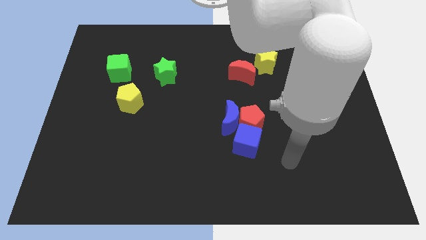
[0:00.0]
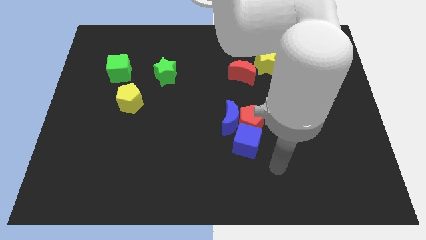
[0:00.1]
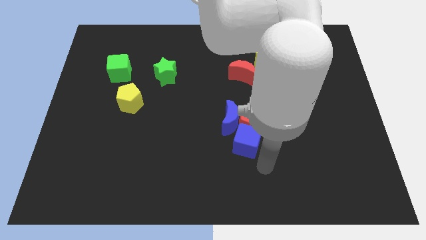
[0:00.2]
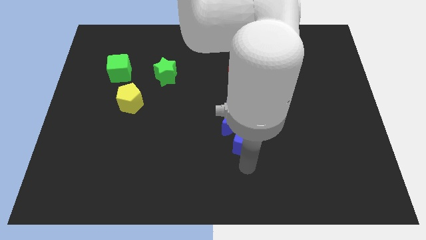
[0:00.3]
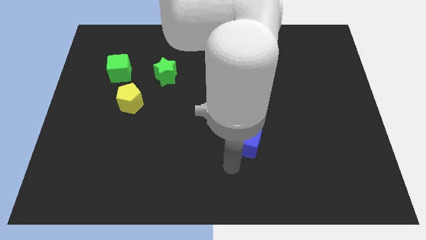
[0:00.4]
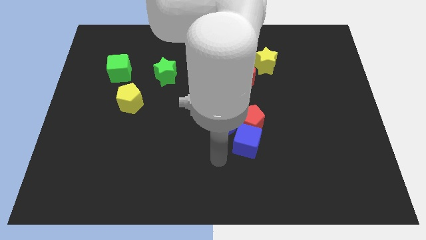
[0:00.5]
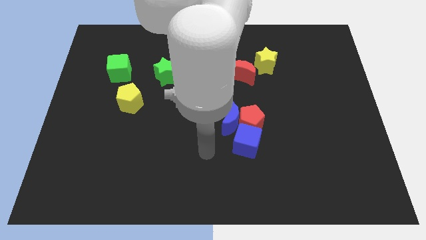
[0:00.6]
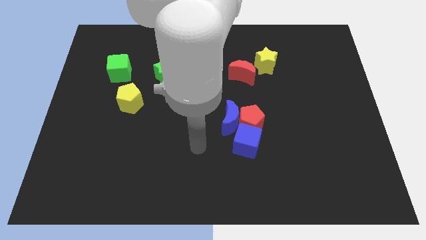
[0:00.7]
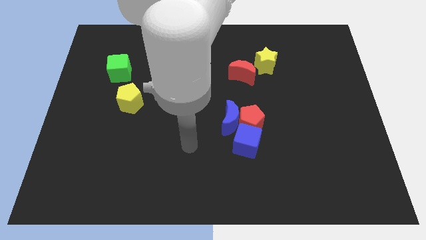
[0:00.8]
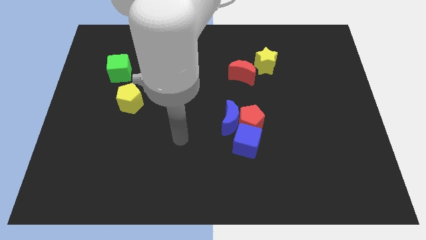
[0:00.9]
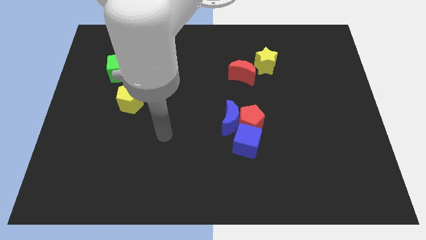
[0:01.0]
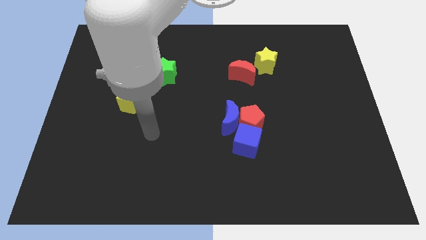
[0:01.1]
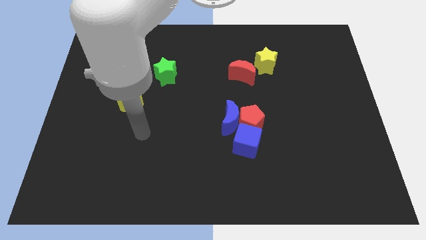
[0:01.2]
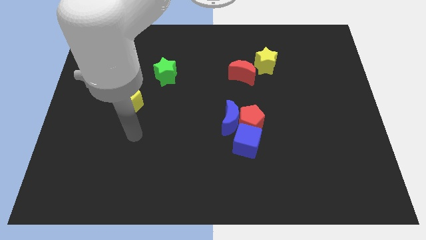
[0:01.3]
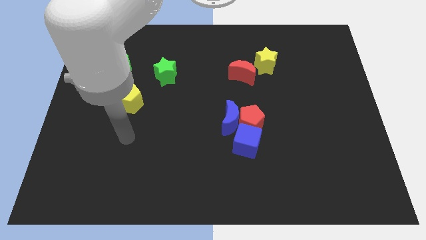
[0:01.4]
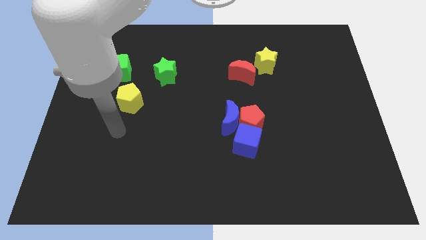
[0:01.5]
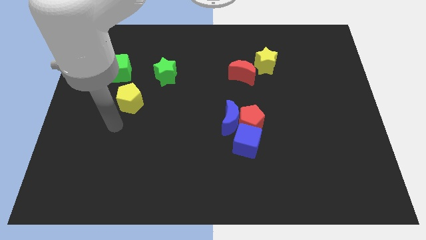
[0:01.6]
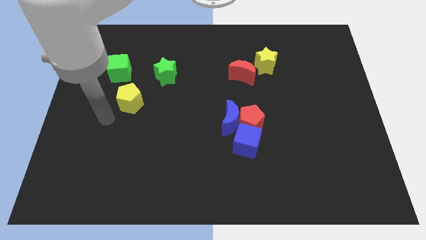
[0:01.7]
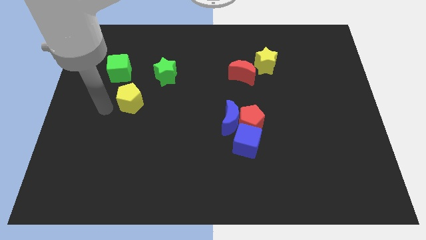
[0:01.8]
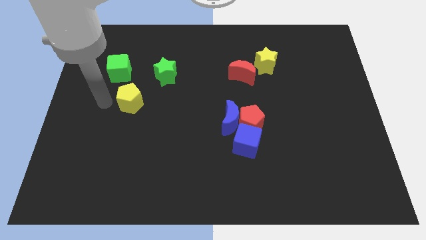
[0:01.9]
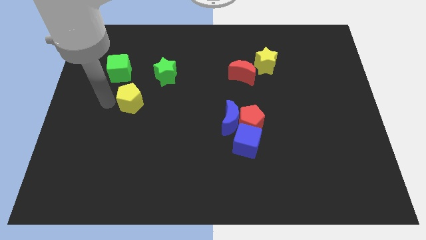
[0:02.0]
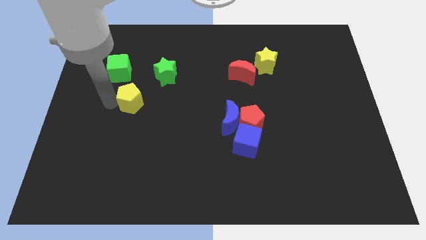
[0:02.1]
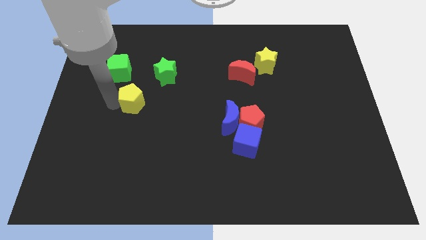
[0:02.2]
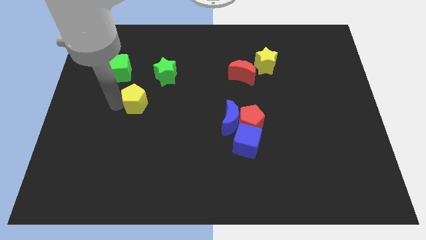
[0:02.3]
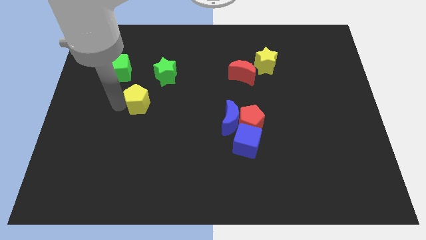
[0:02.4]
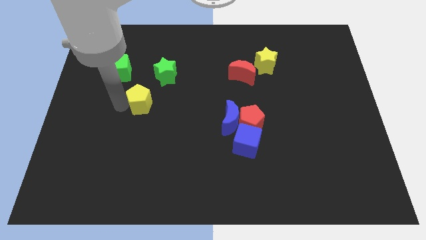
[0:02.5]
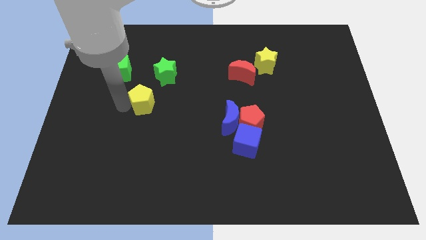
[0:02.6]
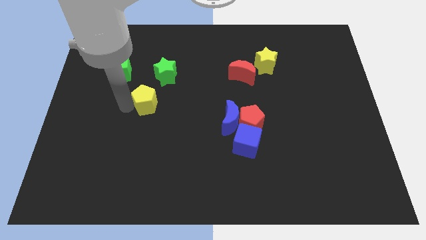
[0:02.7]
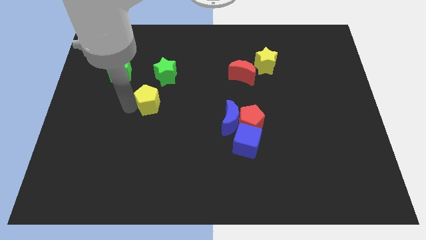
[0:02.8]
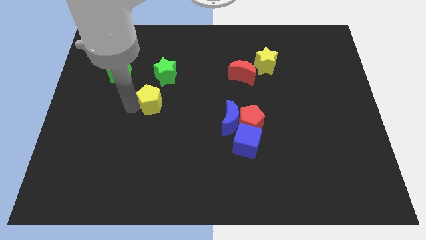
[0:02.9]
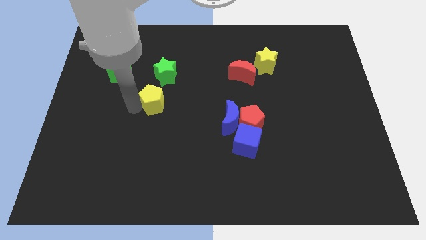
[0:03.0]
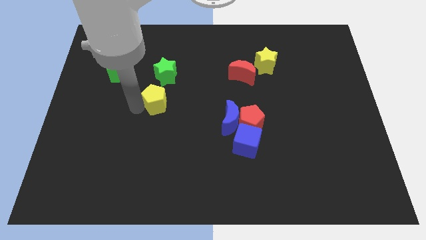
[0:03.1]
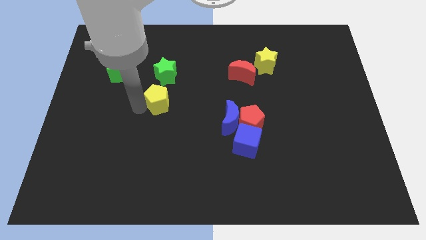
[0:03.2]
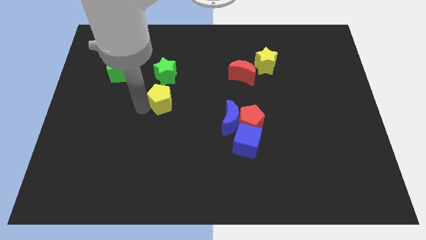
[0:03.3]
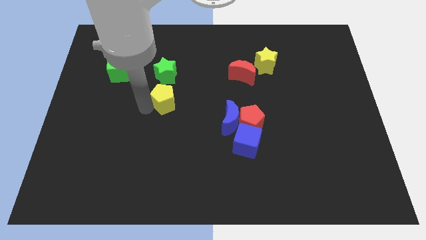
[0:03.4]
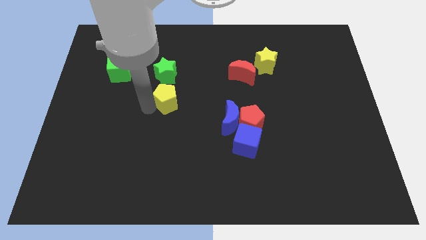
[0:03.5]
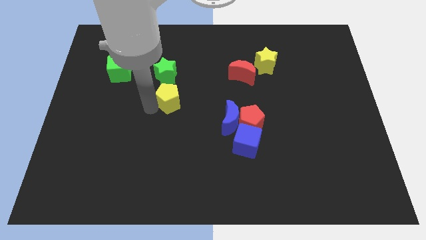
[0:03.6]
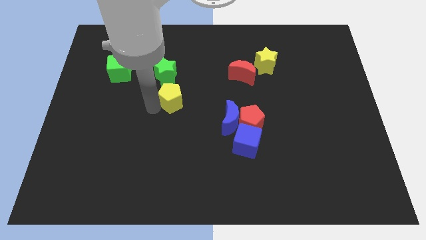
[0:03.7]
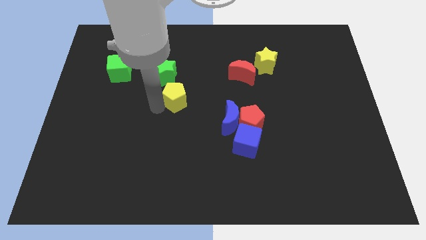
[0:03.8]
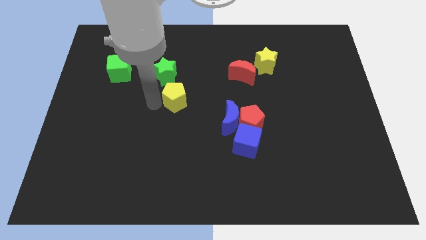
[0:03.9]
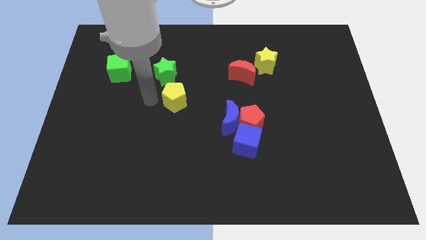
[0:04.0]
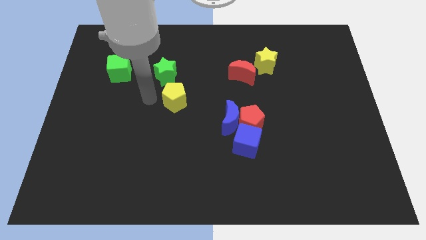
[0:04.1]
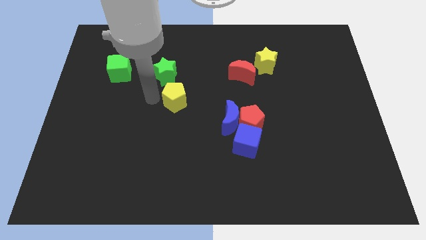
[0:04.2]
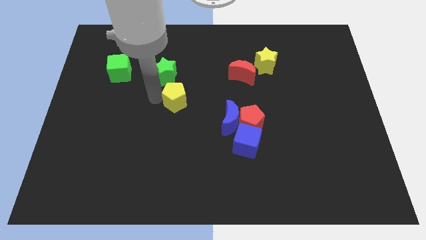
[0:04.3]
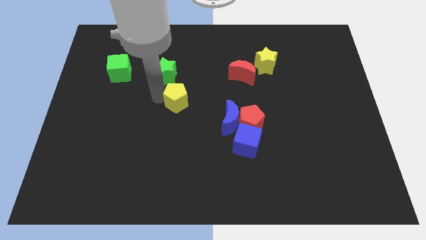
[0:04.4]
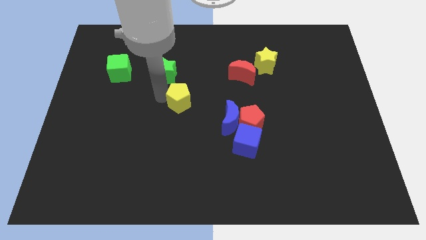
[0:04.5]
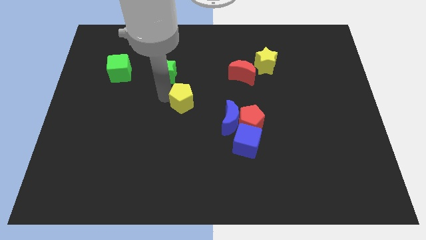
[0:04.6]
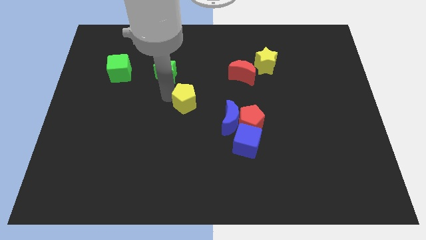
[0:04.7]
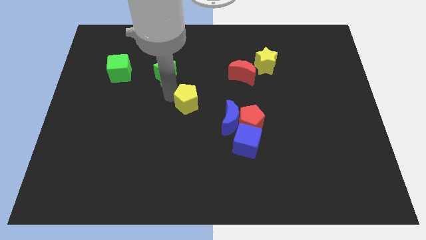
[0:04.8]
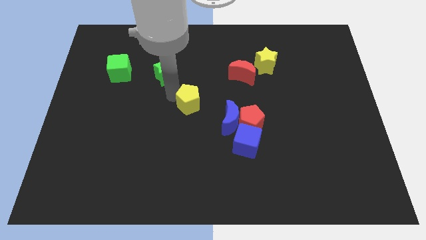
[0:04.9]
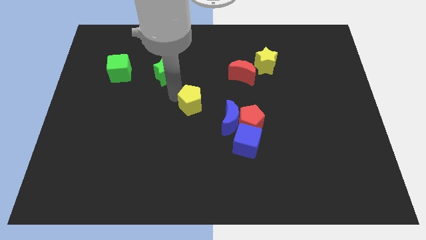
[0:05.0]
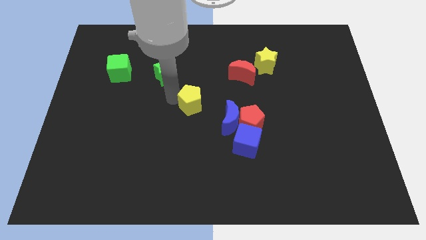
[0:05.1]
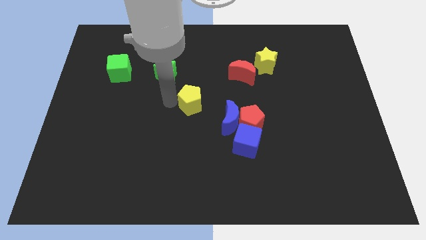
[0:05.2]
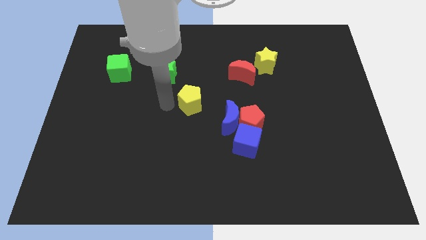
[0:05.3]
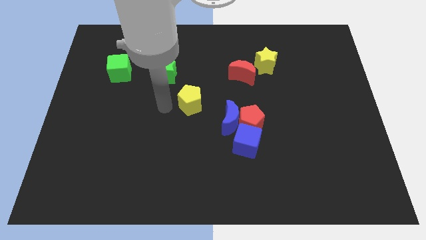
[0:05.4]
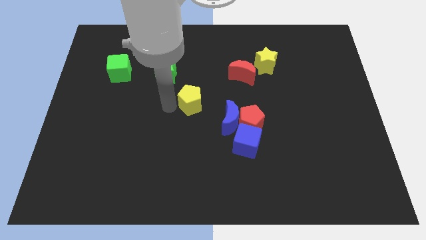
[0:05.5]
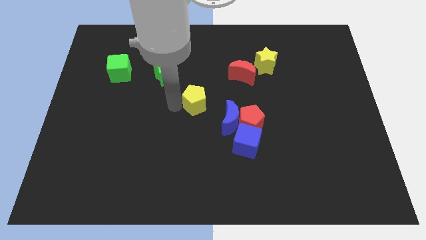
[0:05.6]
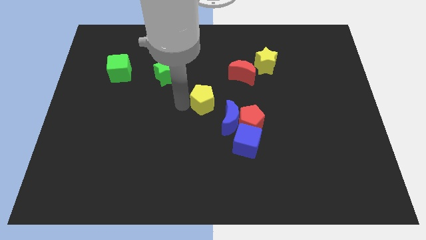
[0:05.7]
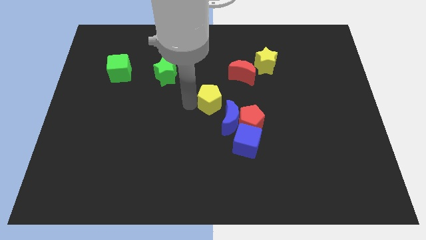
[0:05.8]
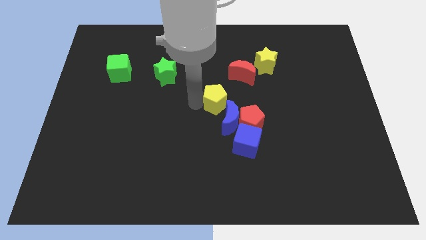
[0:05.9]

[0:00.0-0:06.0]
push the yellow pentagon right

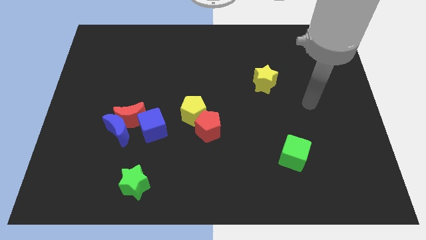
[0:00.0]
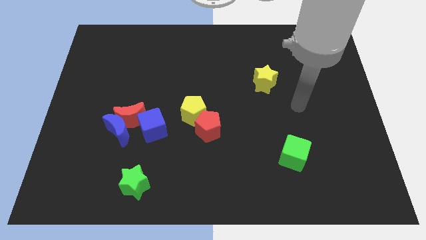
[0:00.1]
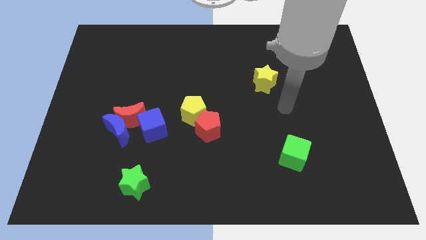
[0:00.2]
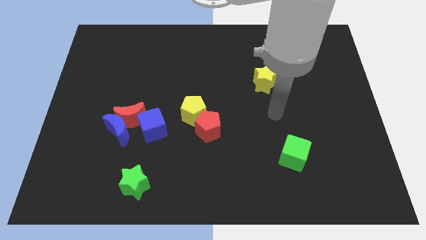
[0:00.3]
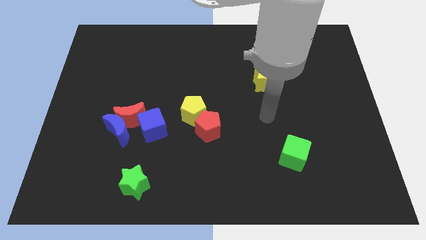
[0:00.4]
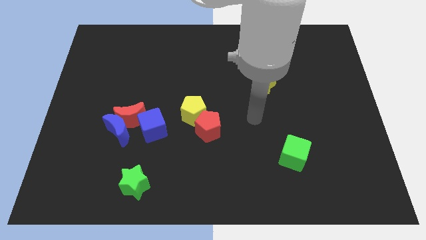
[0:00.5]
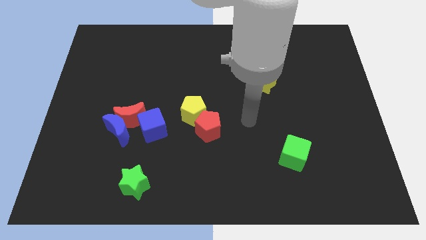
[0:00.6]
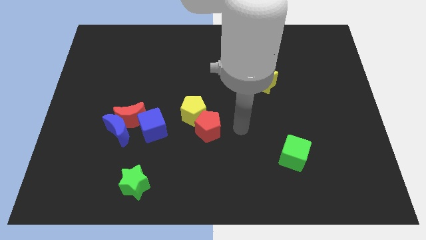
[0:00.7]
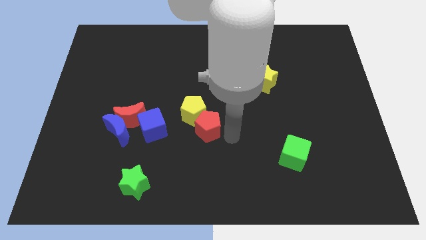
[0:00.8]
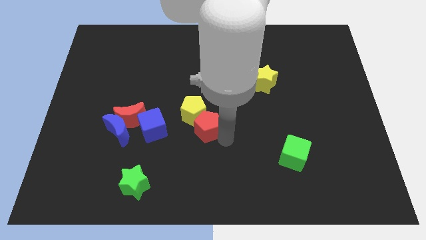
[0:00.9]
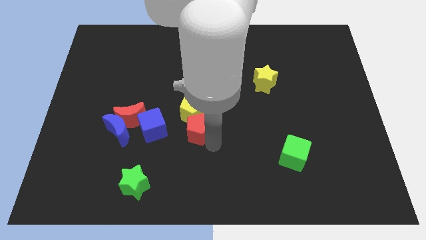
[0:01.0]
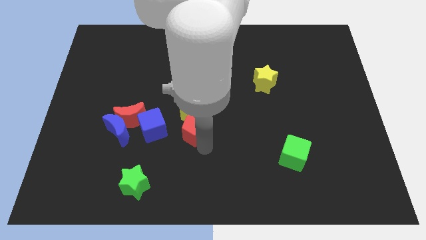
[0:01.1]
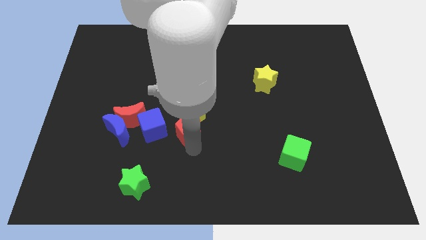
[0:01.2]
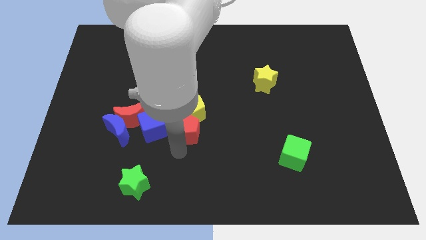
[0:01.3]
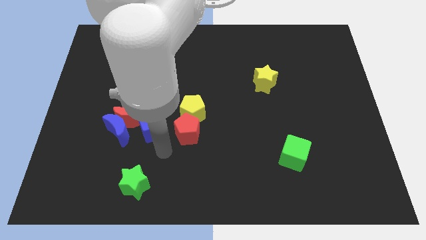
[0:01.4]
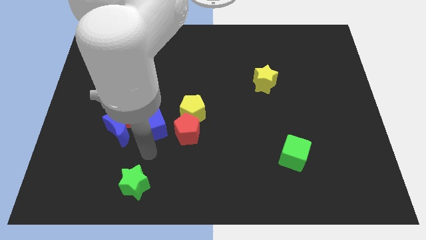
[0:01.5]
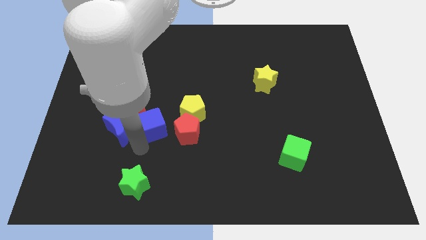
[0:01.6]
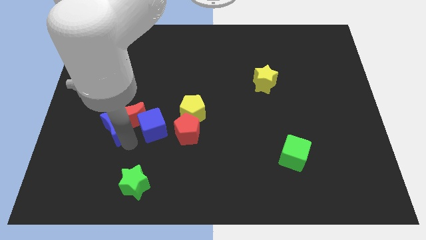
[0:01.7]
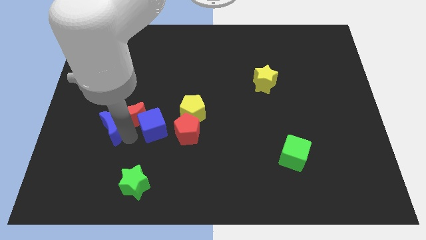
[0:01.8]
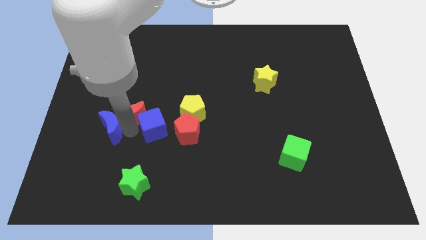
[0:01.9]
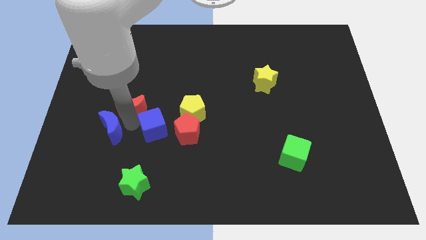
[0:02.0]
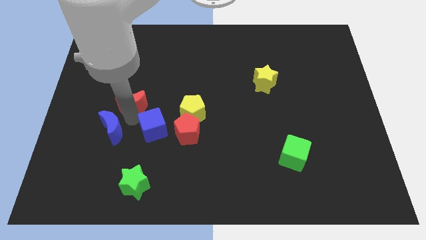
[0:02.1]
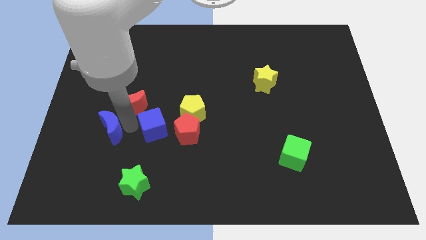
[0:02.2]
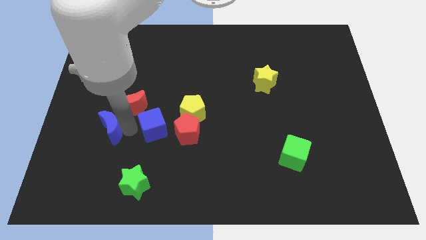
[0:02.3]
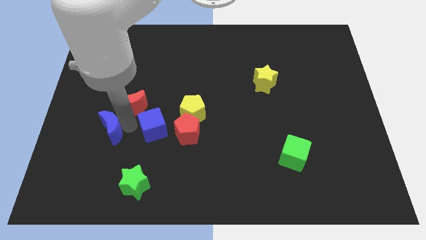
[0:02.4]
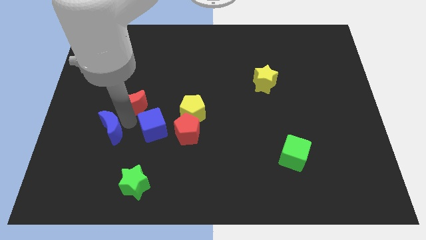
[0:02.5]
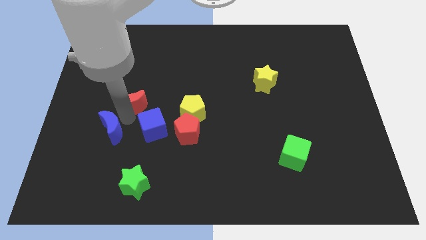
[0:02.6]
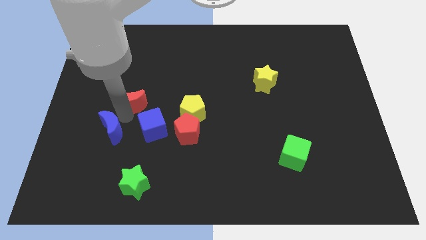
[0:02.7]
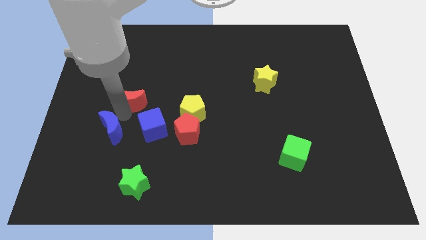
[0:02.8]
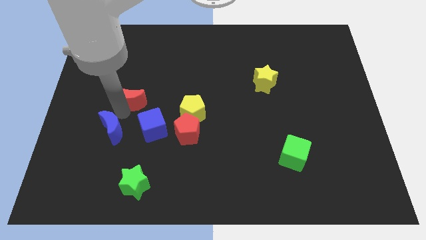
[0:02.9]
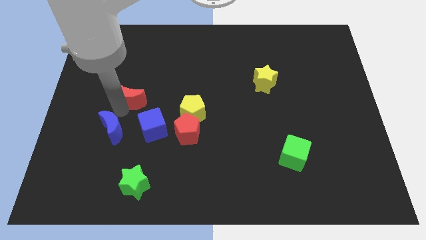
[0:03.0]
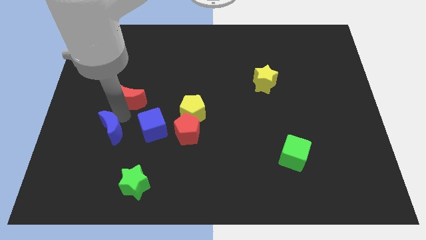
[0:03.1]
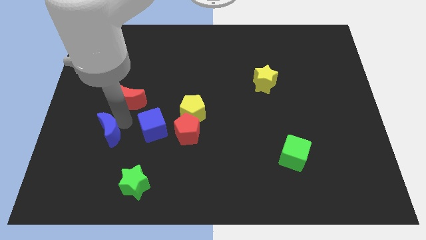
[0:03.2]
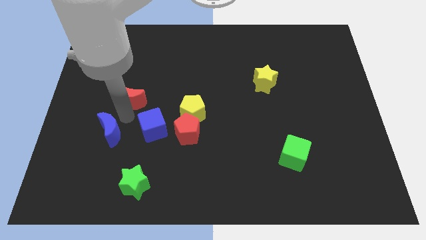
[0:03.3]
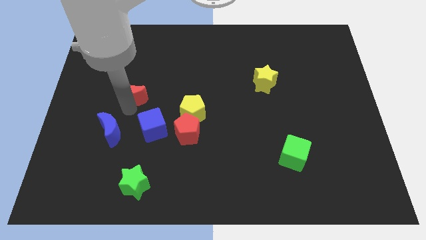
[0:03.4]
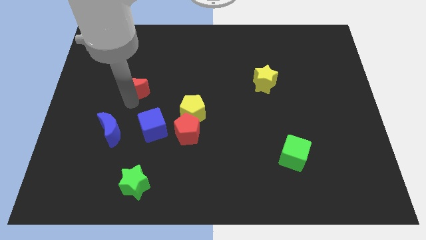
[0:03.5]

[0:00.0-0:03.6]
push the red moon somewhat up
